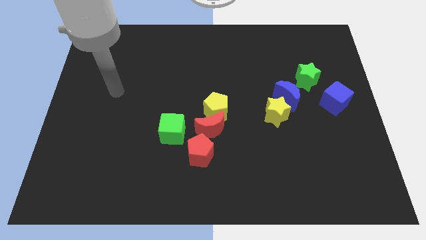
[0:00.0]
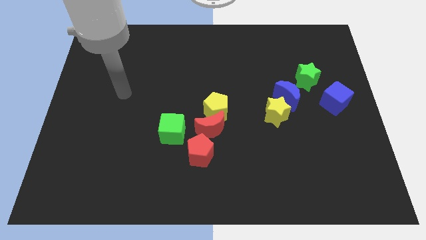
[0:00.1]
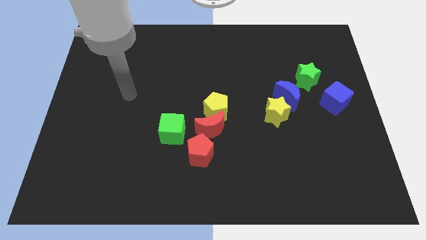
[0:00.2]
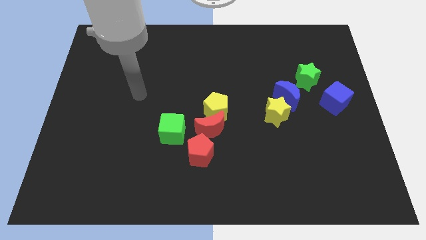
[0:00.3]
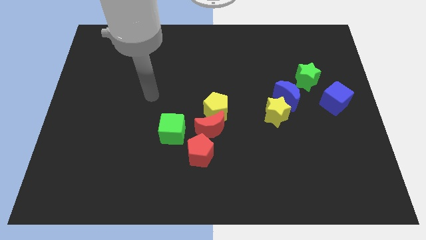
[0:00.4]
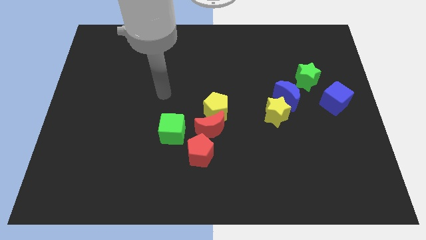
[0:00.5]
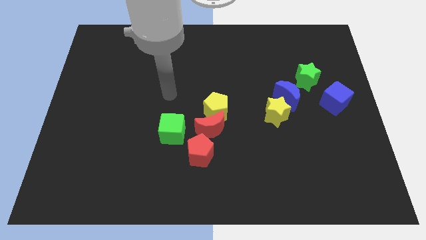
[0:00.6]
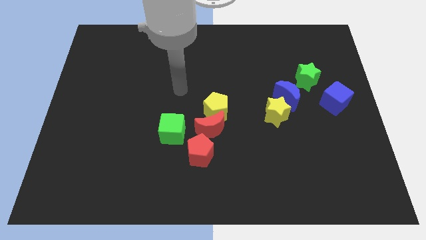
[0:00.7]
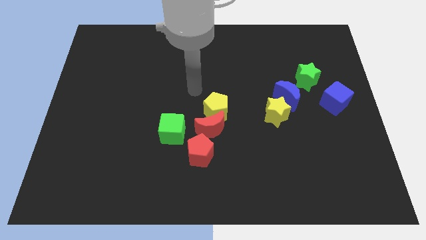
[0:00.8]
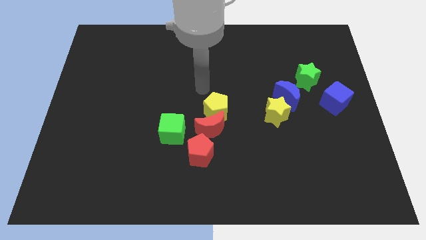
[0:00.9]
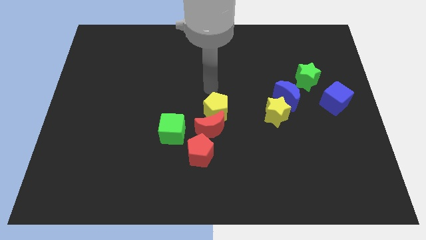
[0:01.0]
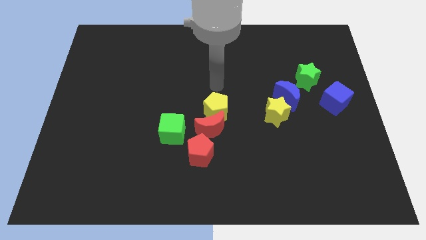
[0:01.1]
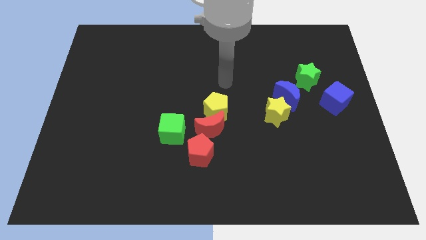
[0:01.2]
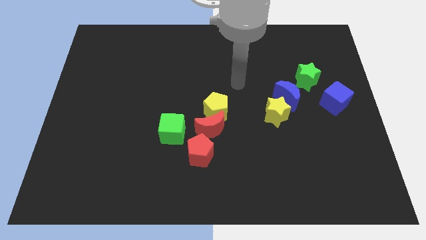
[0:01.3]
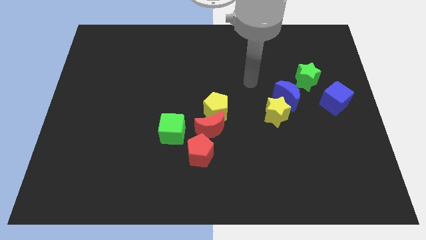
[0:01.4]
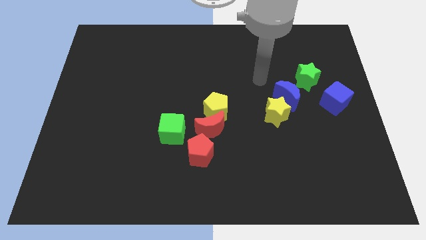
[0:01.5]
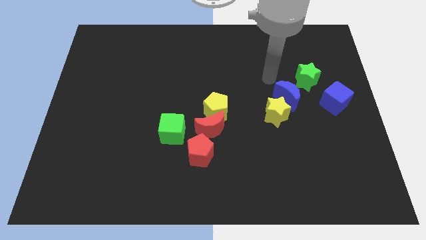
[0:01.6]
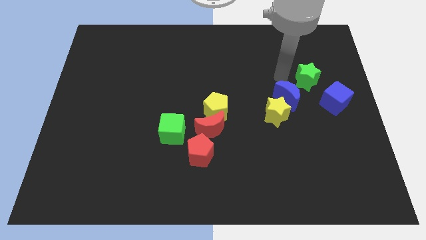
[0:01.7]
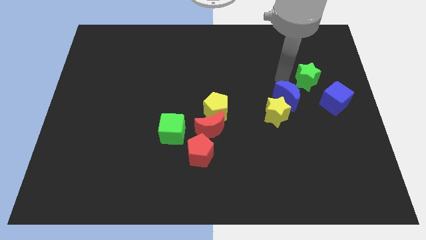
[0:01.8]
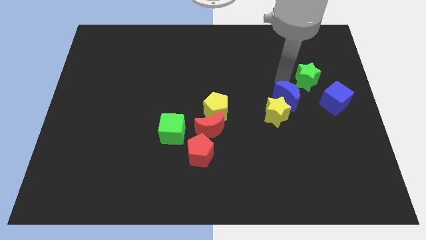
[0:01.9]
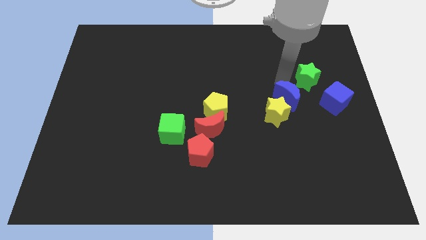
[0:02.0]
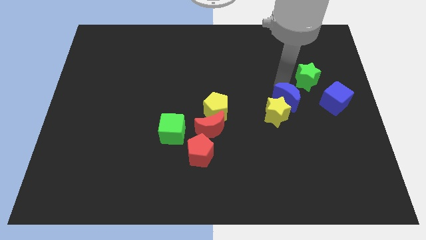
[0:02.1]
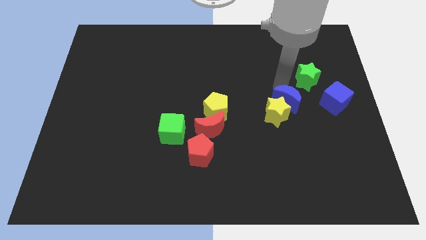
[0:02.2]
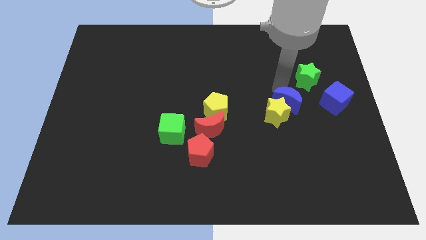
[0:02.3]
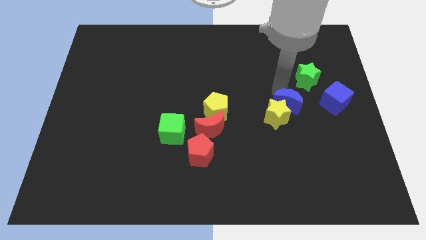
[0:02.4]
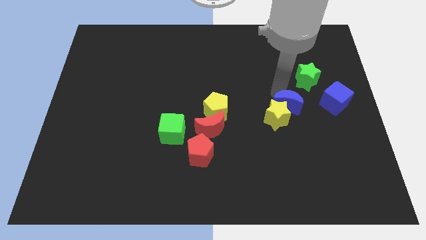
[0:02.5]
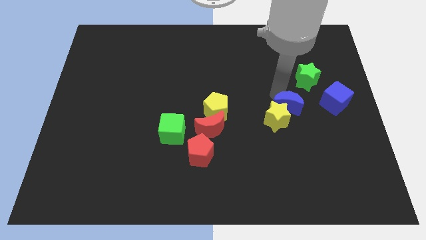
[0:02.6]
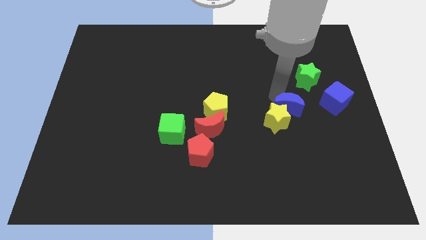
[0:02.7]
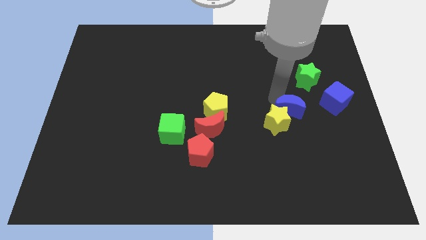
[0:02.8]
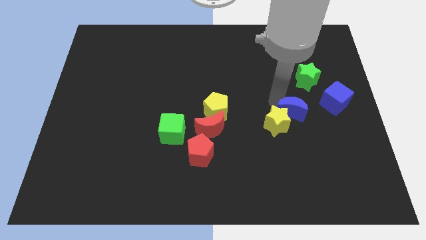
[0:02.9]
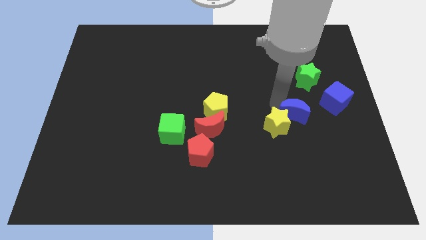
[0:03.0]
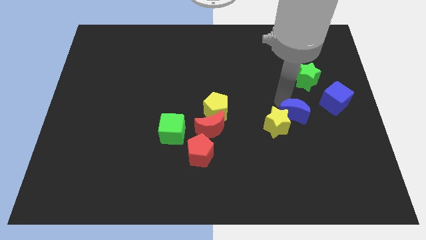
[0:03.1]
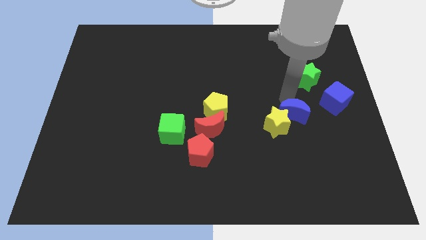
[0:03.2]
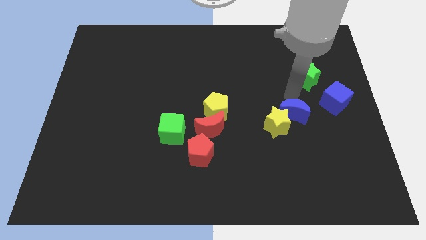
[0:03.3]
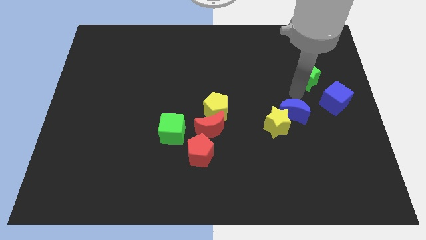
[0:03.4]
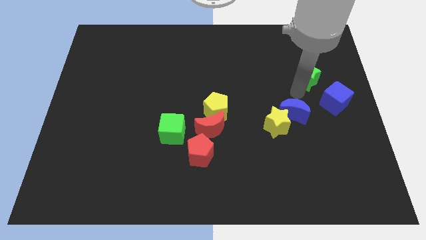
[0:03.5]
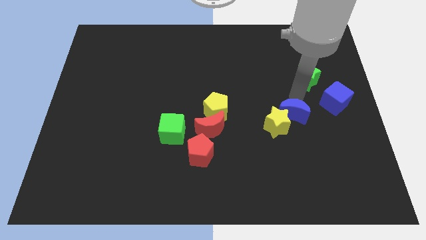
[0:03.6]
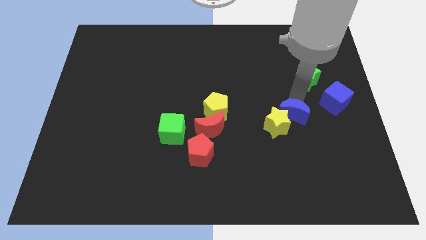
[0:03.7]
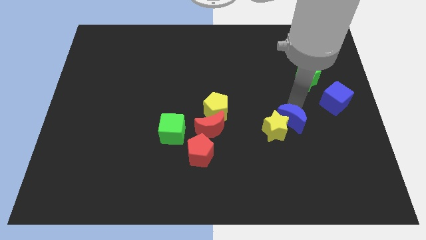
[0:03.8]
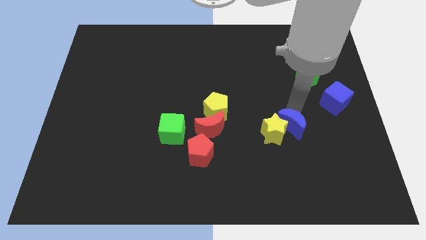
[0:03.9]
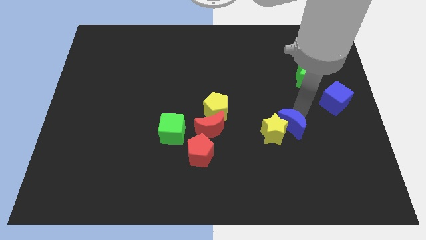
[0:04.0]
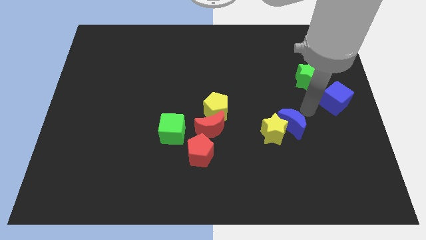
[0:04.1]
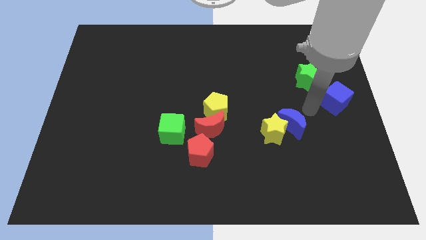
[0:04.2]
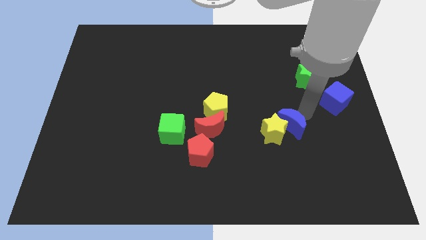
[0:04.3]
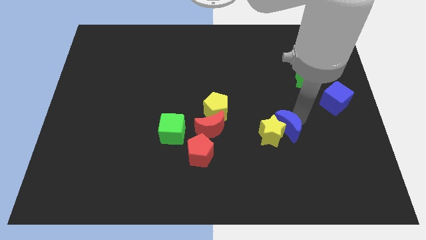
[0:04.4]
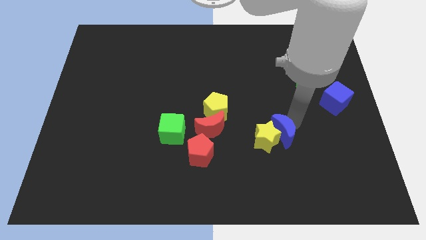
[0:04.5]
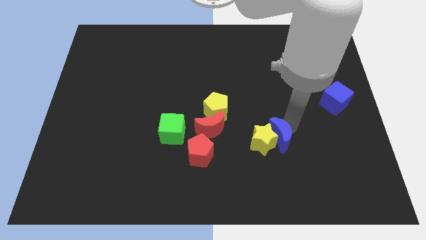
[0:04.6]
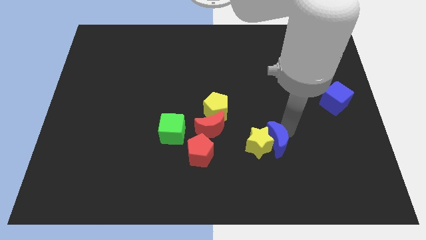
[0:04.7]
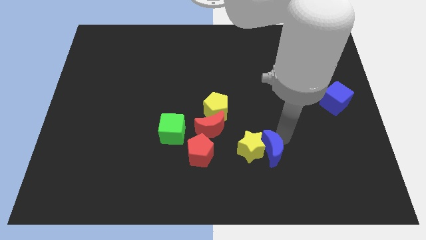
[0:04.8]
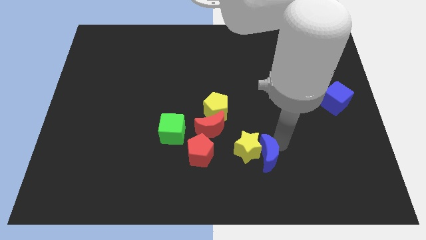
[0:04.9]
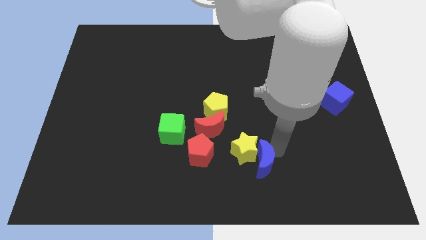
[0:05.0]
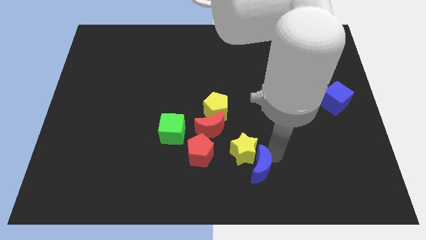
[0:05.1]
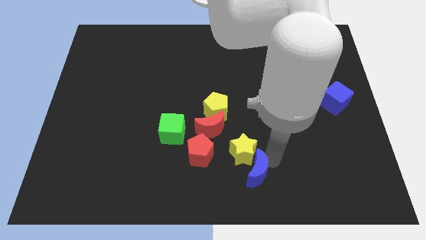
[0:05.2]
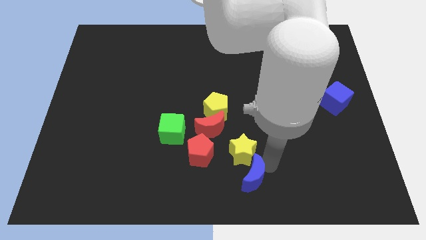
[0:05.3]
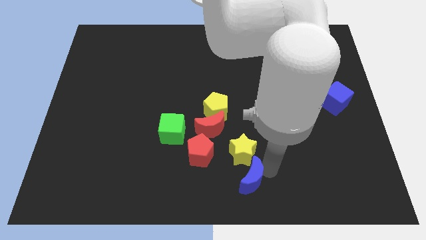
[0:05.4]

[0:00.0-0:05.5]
put the blue moon diagonally down and to the right of the red pentagon

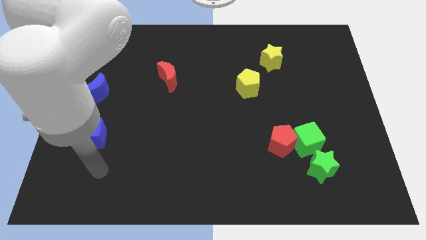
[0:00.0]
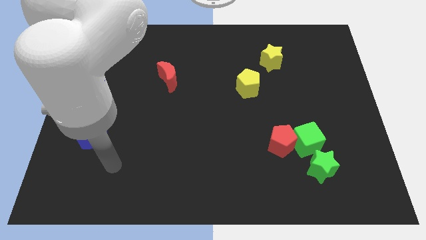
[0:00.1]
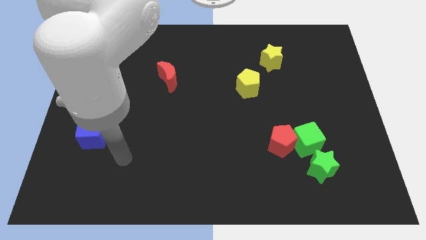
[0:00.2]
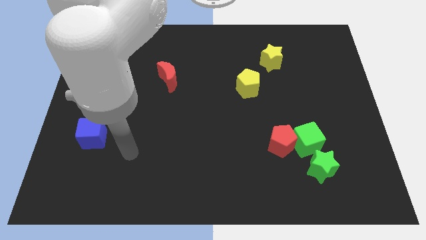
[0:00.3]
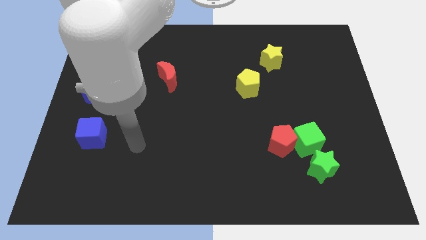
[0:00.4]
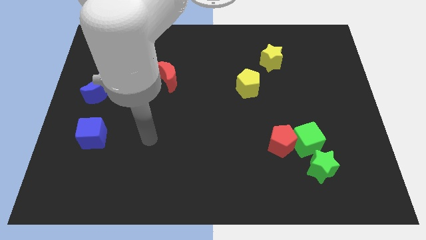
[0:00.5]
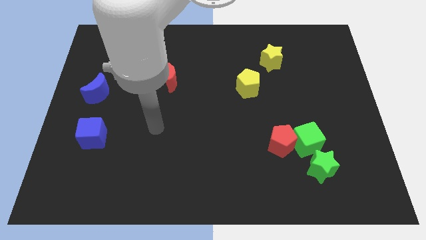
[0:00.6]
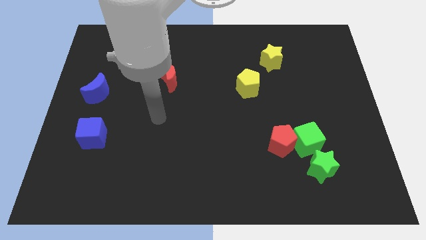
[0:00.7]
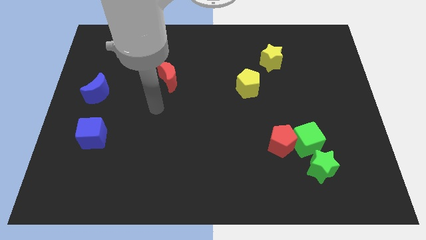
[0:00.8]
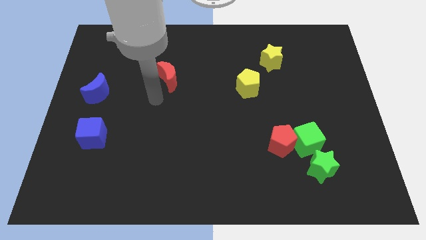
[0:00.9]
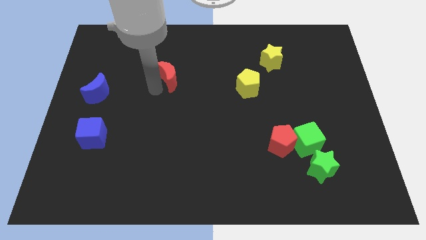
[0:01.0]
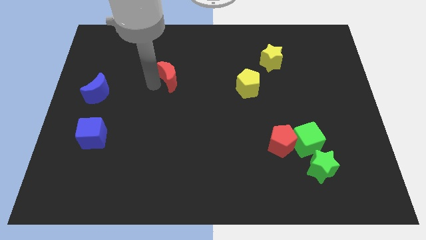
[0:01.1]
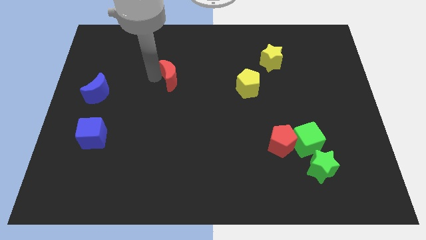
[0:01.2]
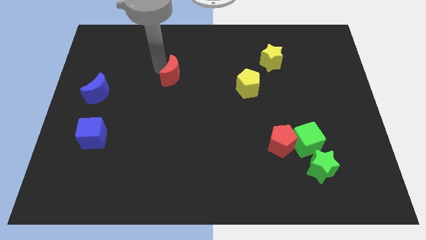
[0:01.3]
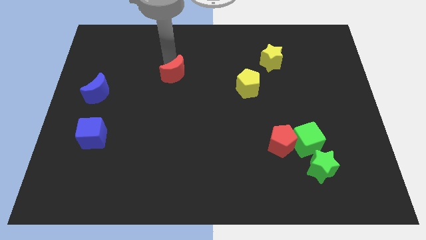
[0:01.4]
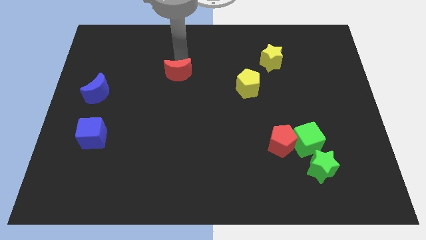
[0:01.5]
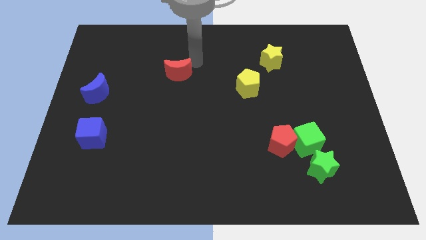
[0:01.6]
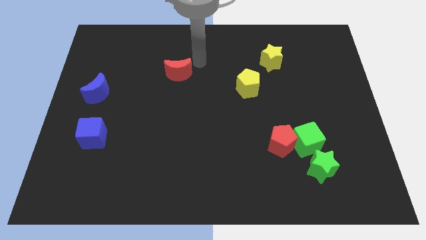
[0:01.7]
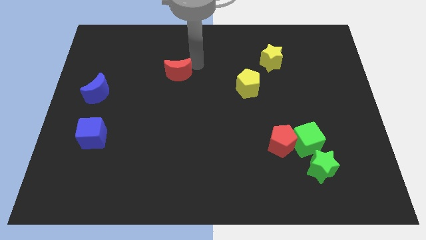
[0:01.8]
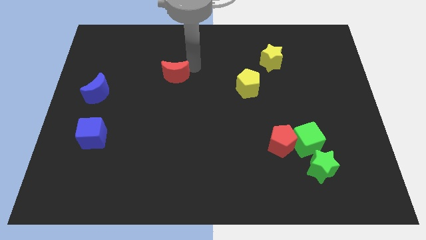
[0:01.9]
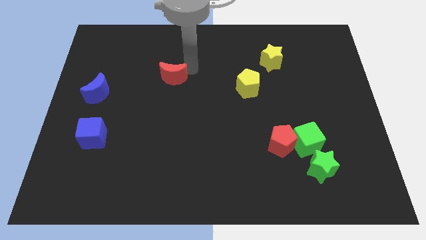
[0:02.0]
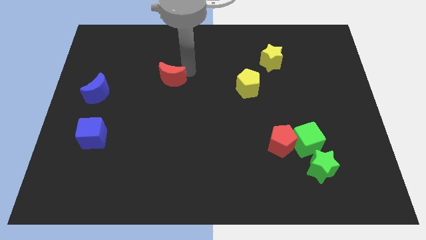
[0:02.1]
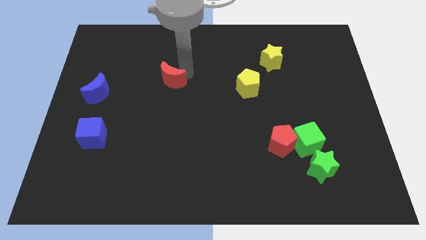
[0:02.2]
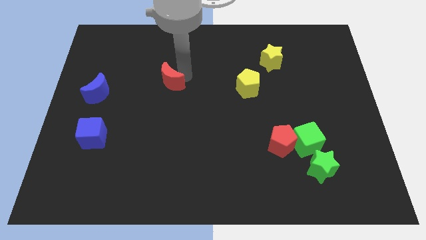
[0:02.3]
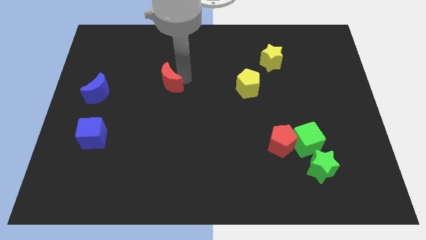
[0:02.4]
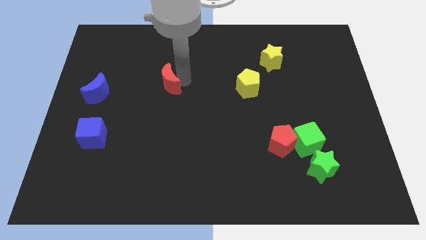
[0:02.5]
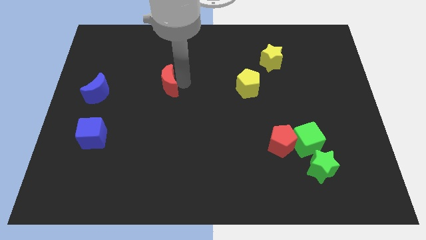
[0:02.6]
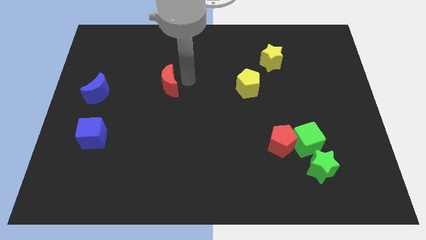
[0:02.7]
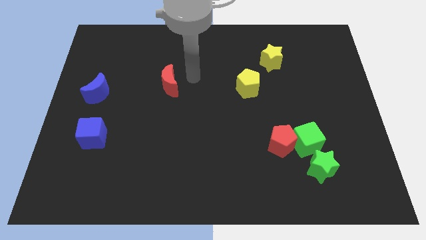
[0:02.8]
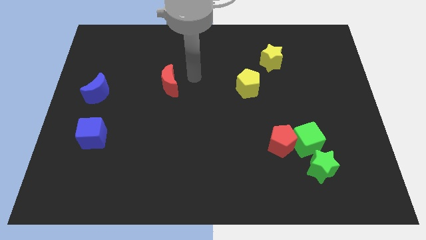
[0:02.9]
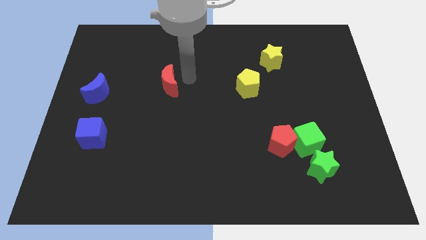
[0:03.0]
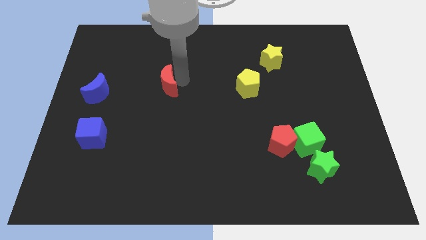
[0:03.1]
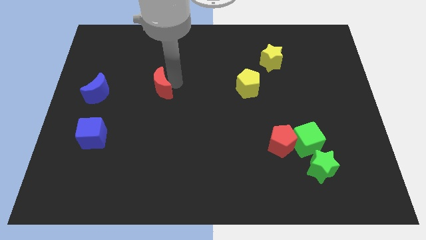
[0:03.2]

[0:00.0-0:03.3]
move the red moon just right of the blue moon
